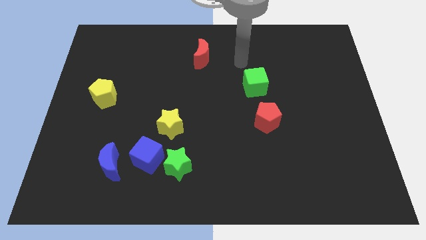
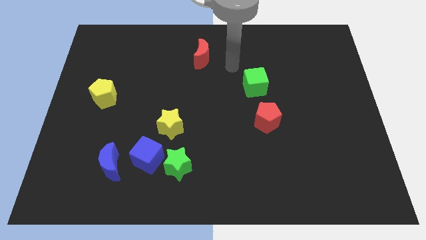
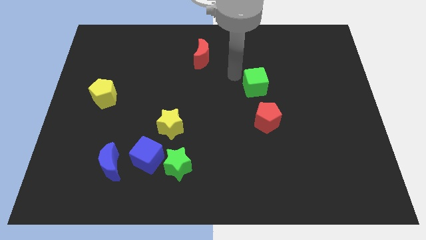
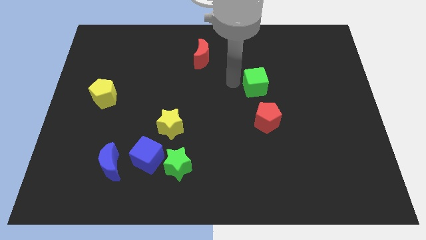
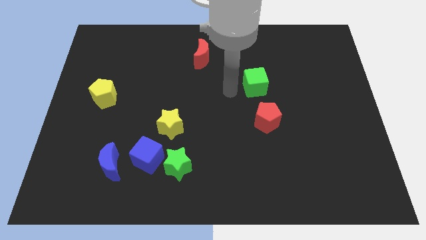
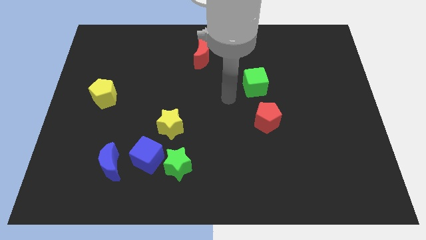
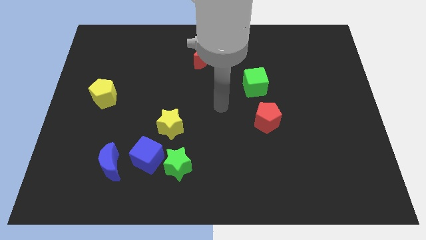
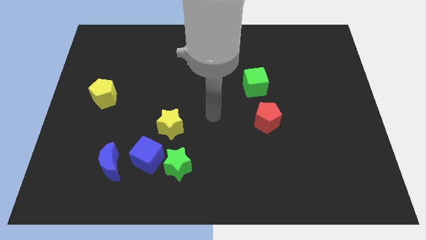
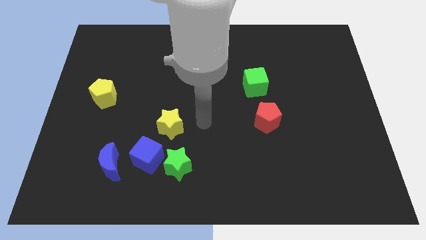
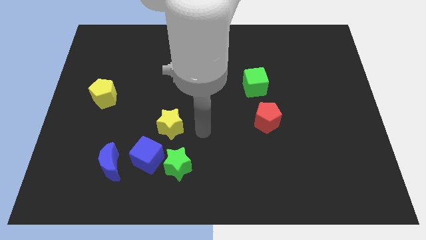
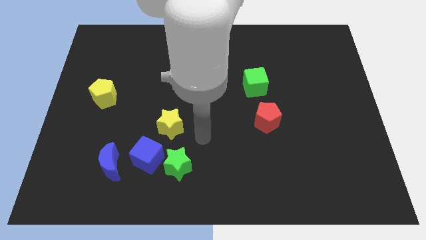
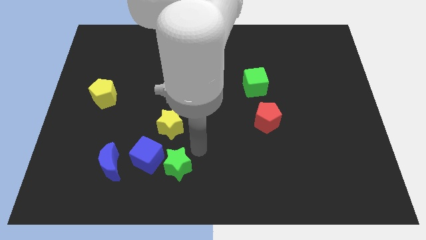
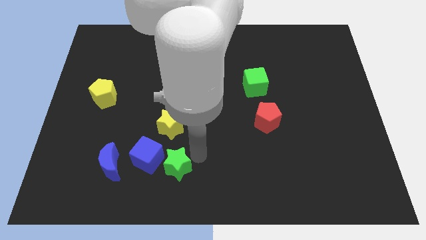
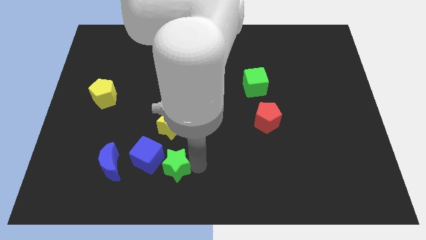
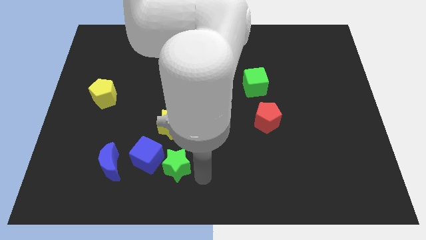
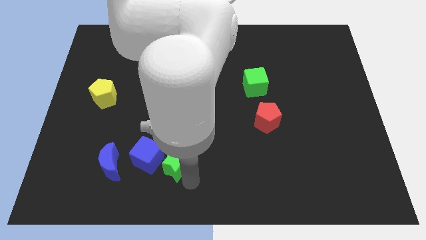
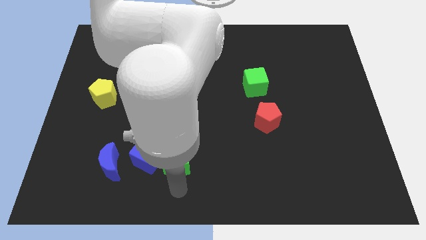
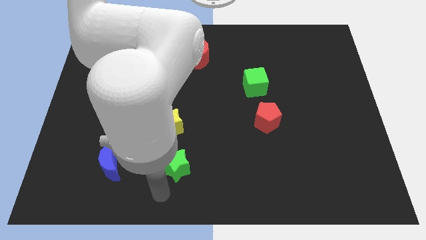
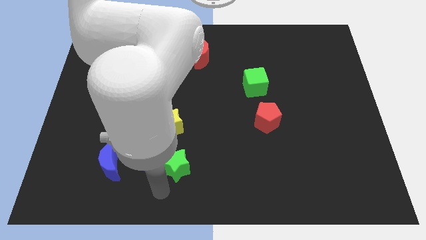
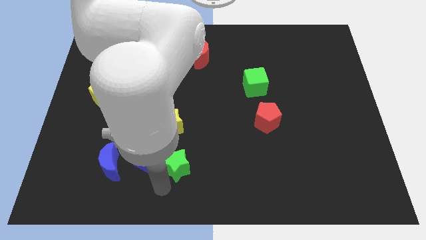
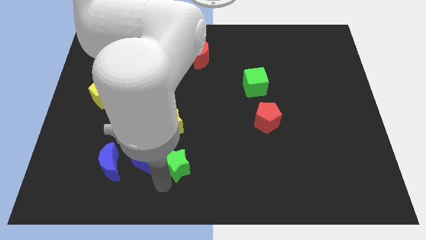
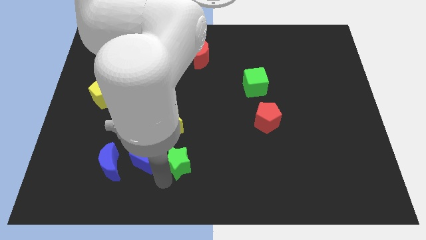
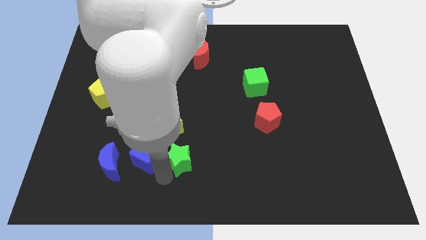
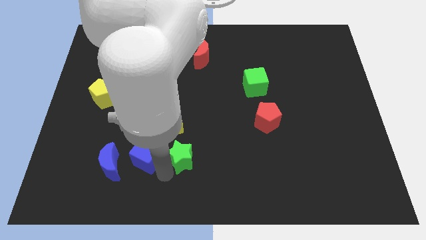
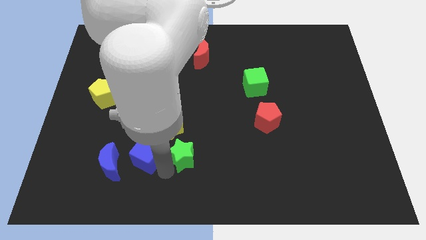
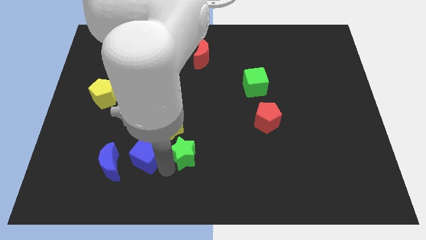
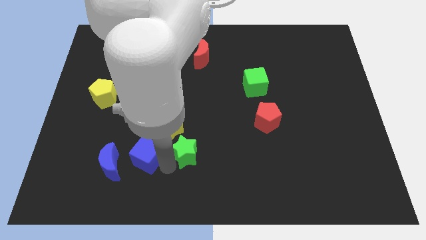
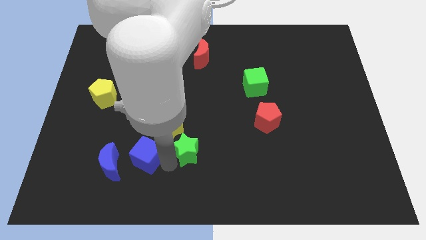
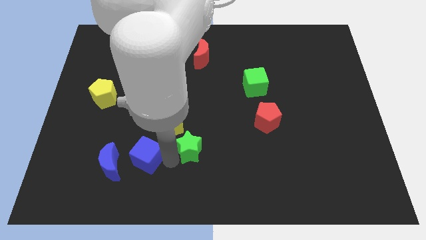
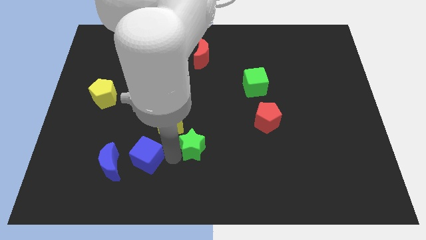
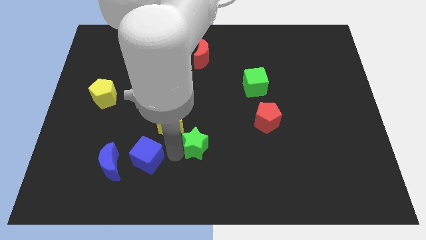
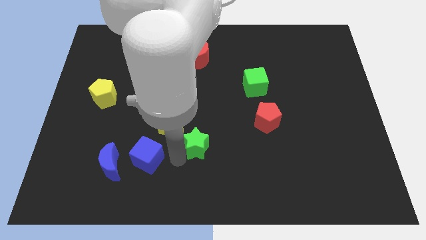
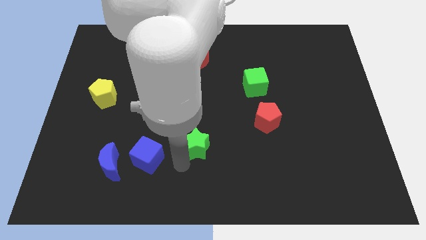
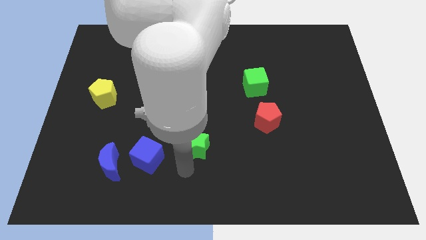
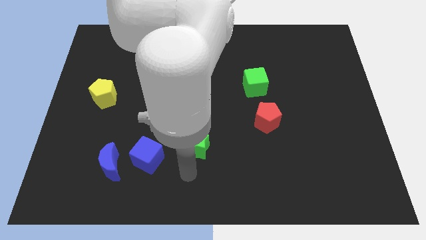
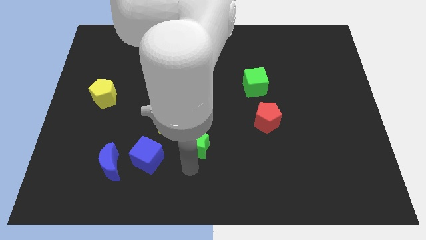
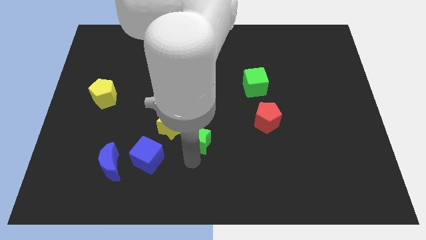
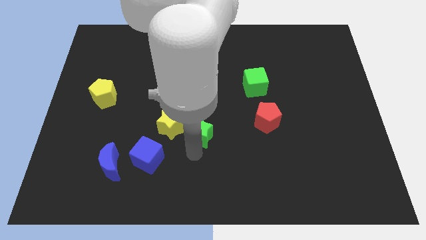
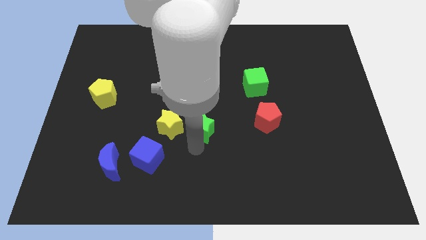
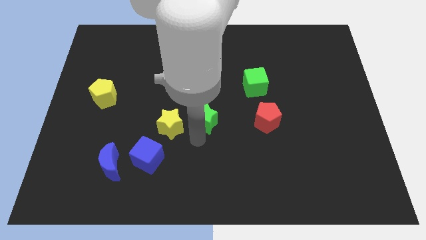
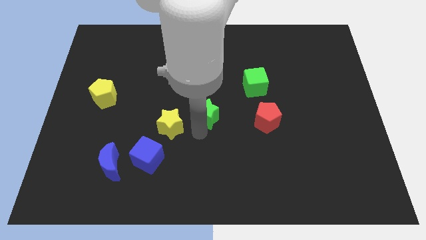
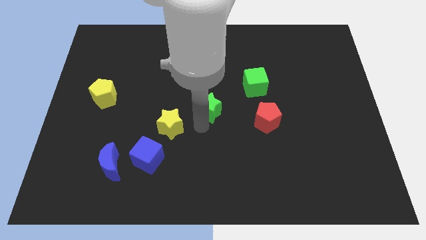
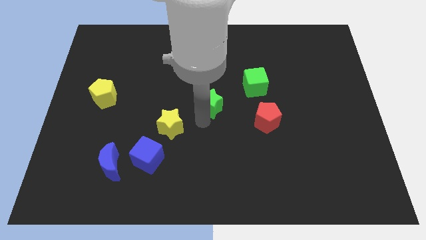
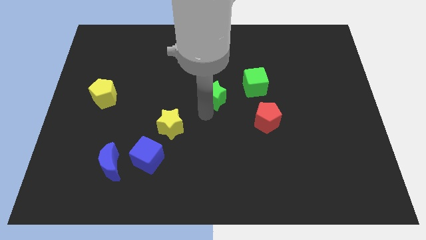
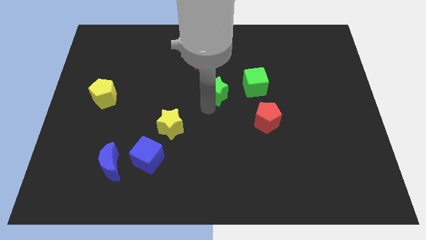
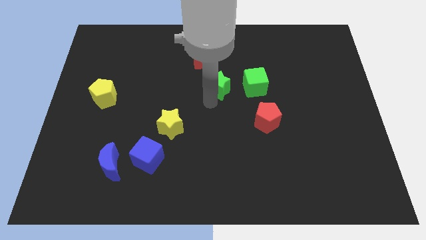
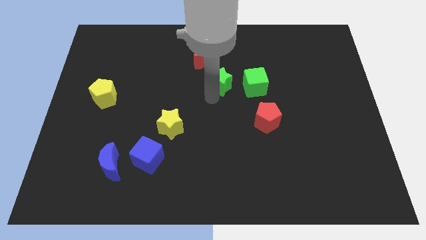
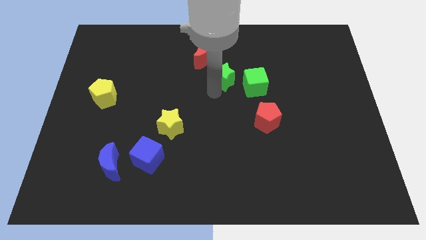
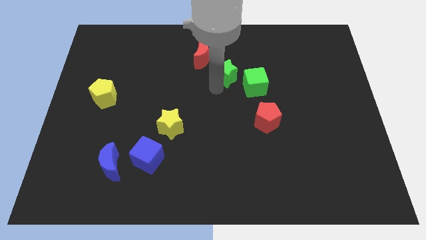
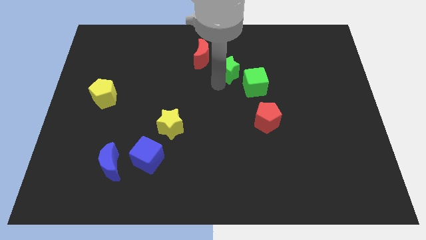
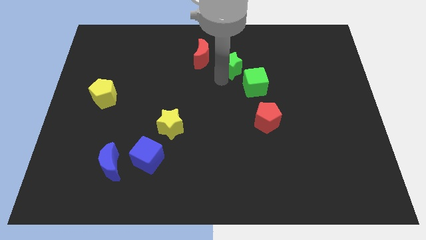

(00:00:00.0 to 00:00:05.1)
put the green star right of the red moon

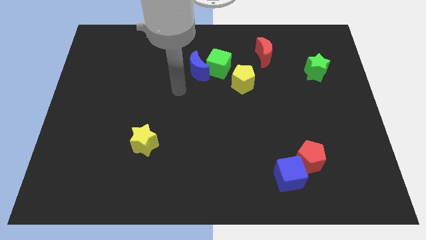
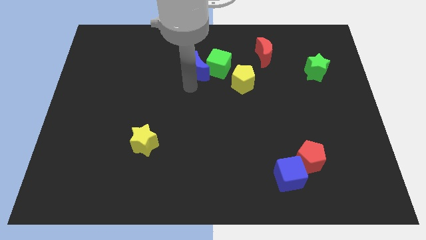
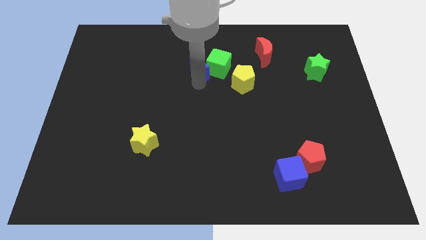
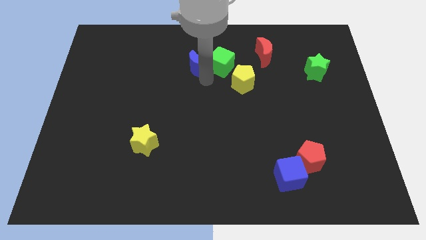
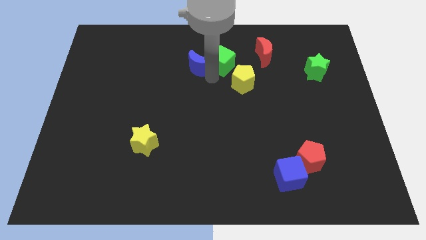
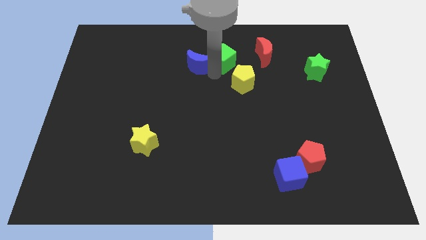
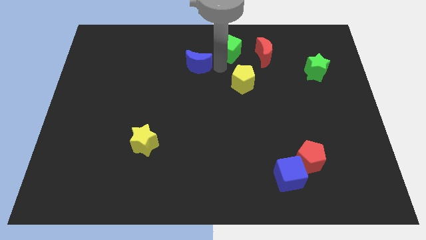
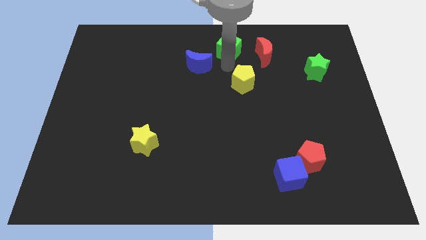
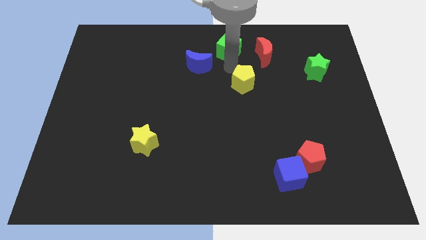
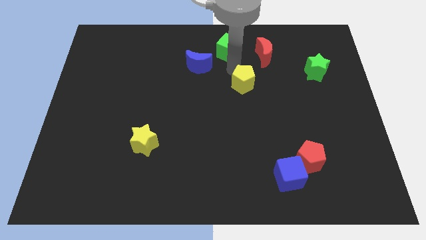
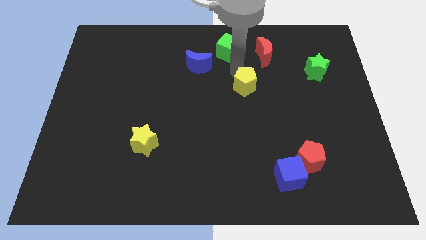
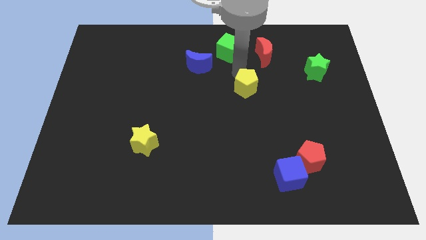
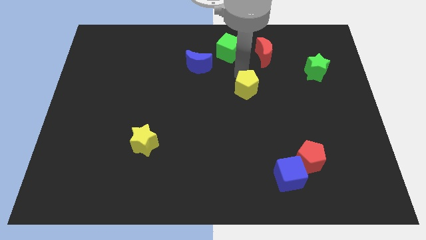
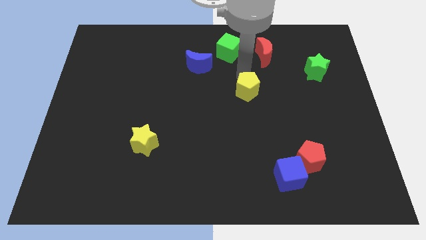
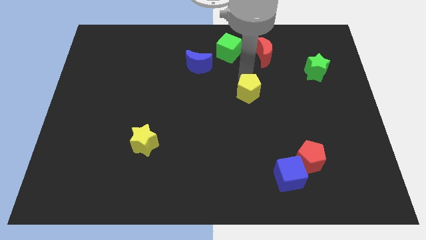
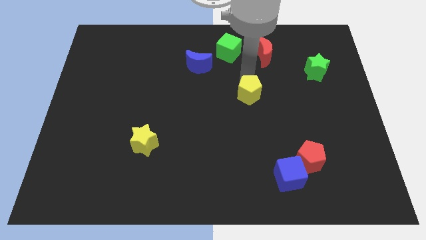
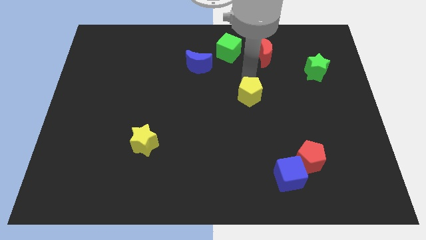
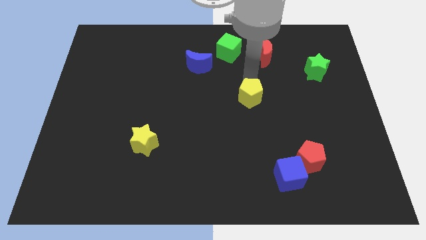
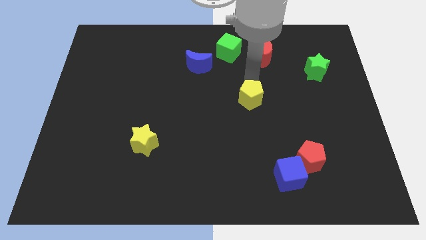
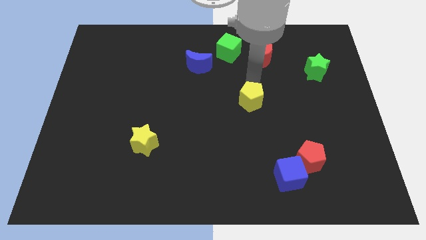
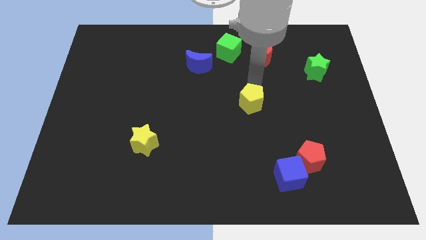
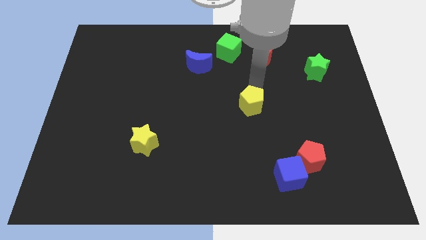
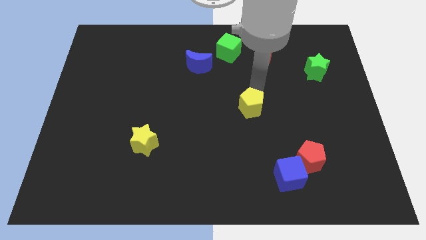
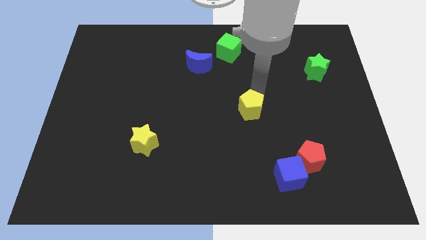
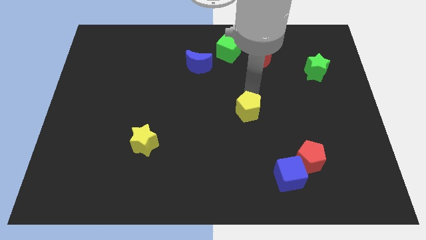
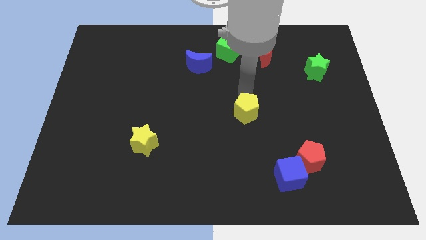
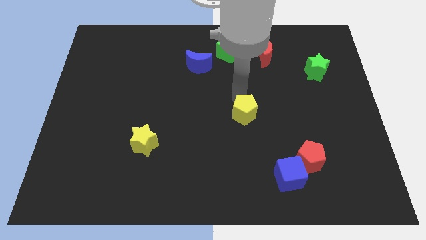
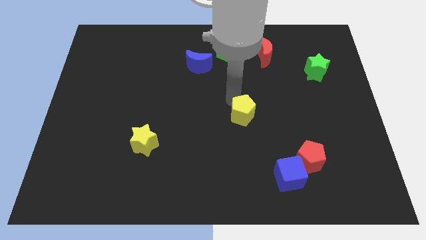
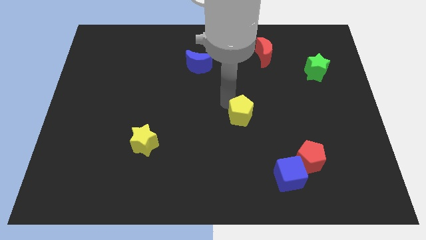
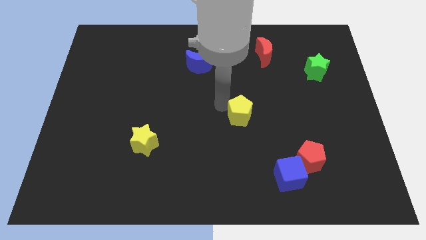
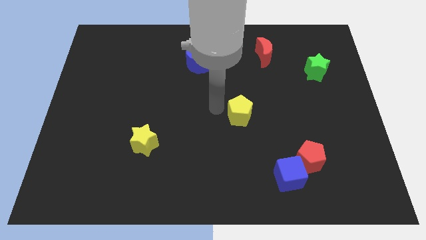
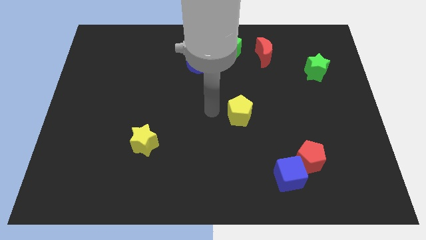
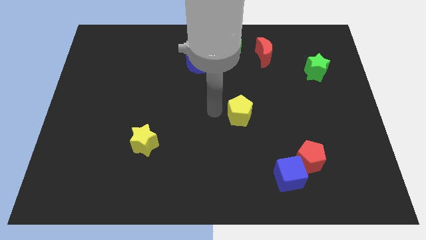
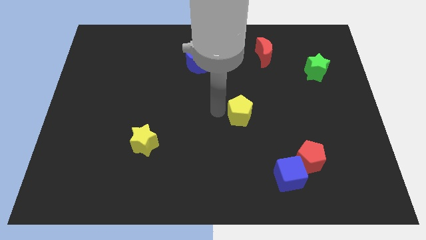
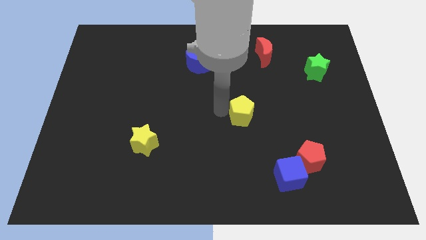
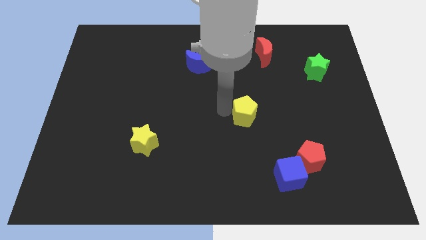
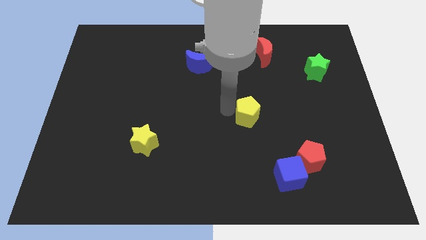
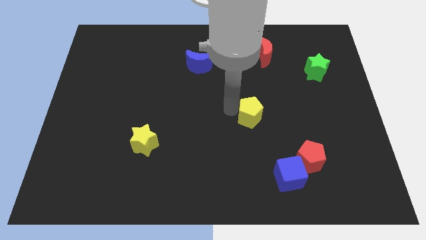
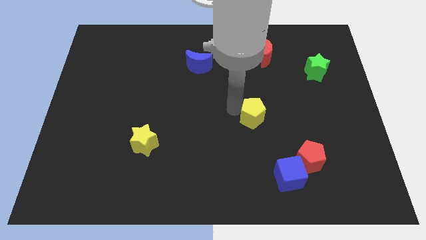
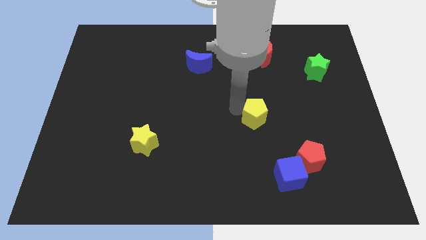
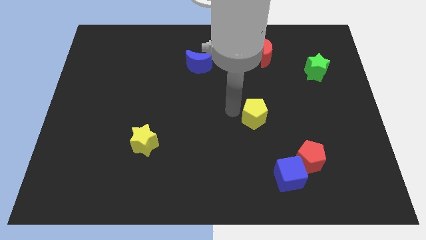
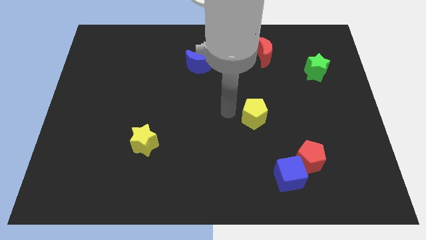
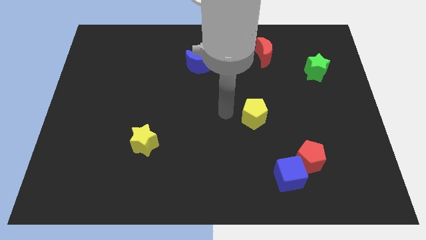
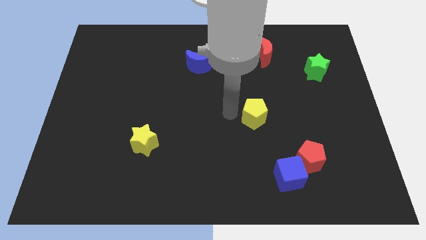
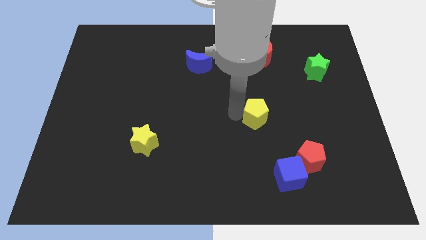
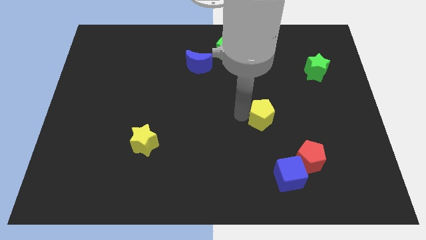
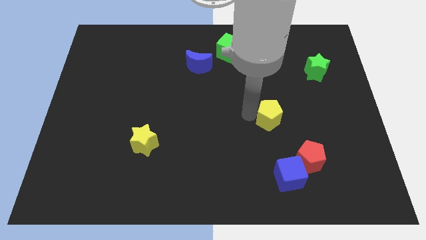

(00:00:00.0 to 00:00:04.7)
push the yellow pentagon above the blue cube
